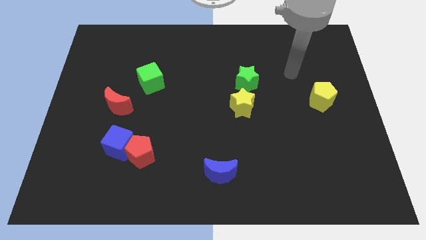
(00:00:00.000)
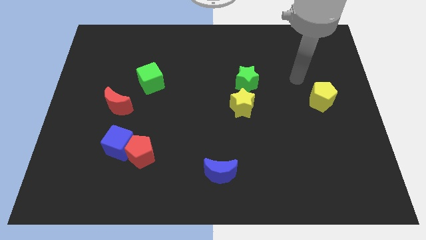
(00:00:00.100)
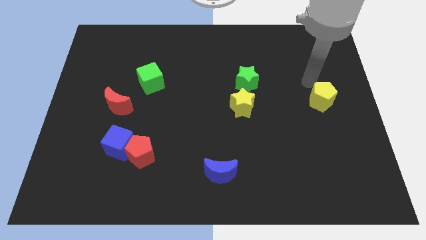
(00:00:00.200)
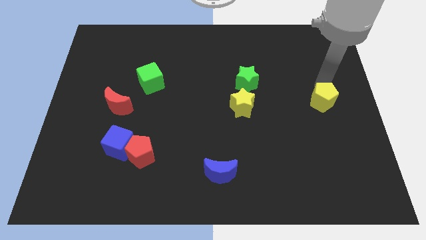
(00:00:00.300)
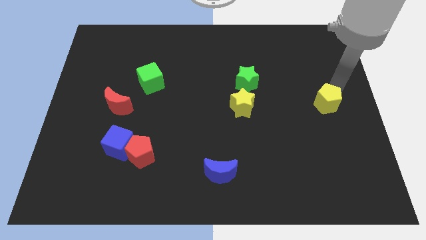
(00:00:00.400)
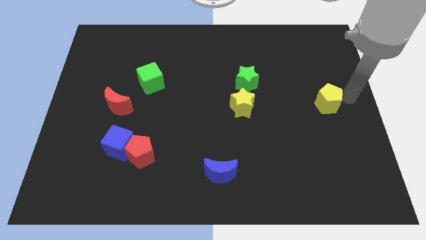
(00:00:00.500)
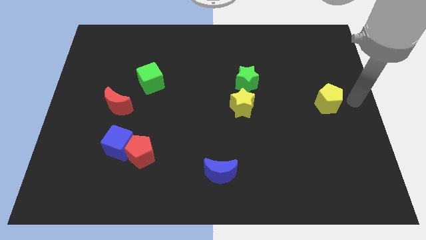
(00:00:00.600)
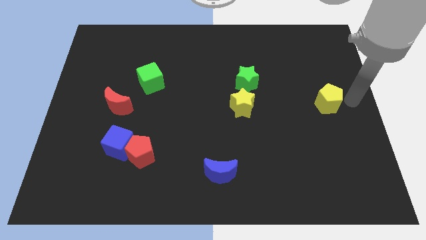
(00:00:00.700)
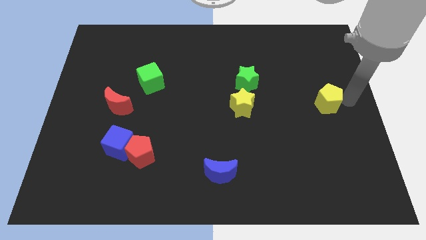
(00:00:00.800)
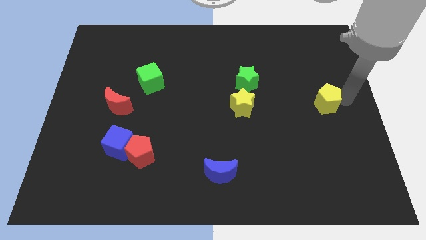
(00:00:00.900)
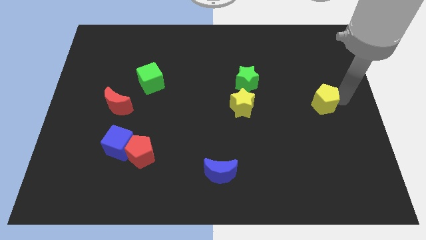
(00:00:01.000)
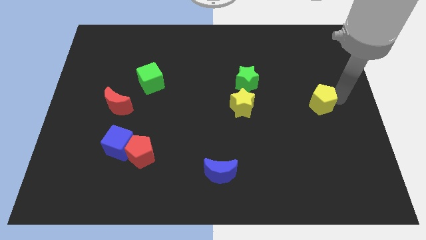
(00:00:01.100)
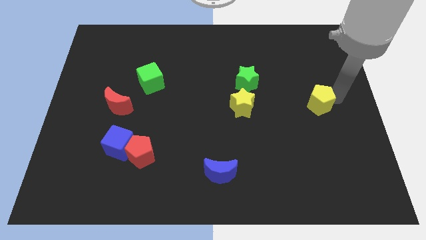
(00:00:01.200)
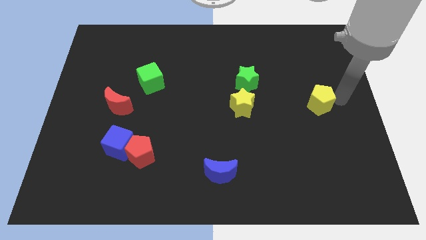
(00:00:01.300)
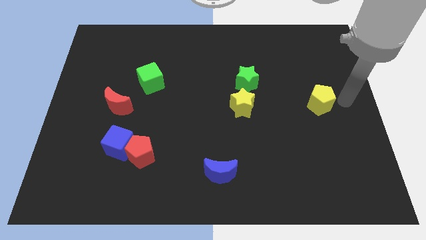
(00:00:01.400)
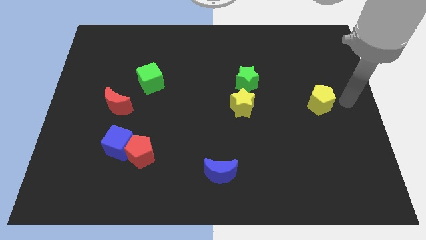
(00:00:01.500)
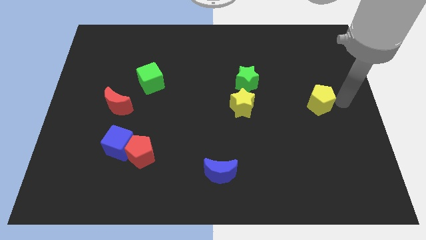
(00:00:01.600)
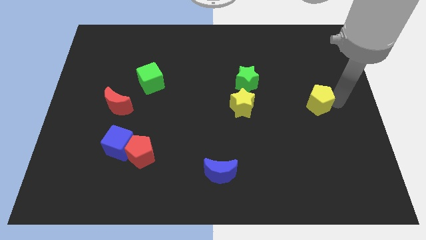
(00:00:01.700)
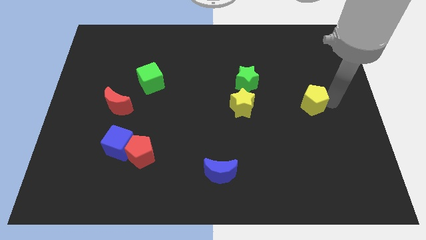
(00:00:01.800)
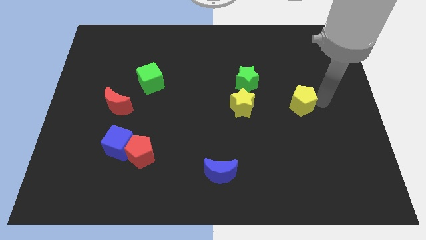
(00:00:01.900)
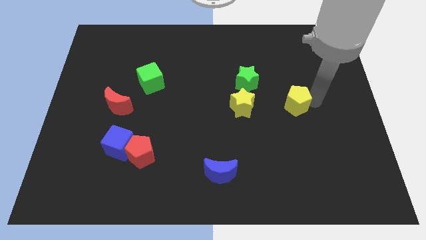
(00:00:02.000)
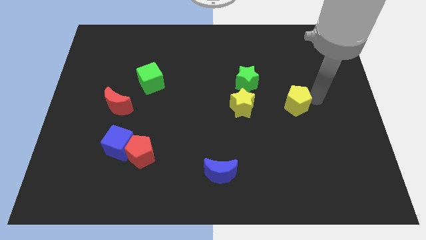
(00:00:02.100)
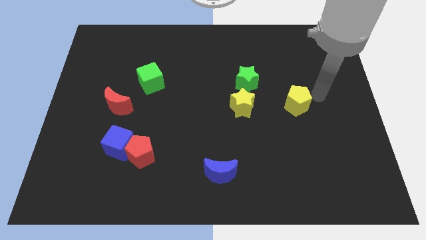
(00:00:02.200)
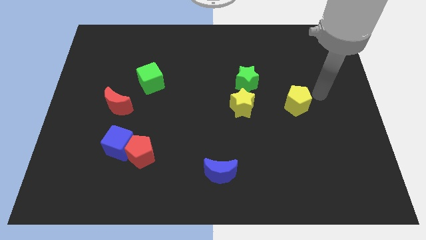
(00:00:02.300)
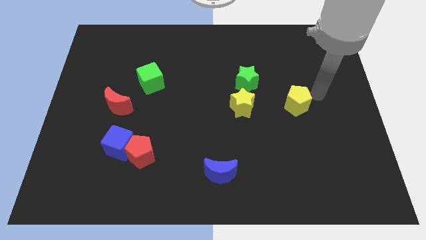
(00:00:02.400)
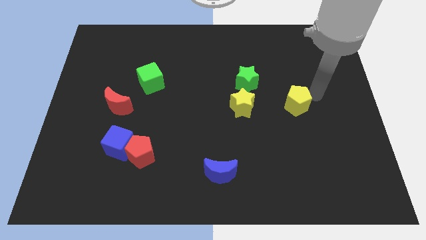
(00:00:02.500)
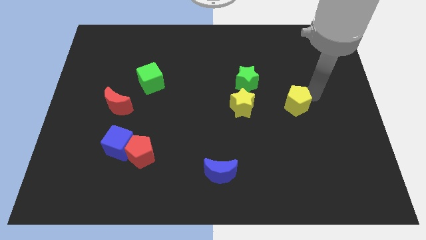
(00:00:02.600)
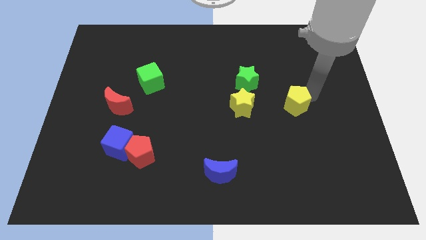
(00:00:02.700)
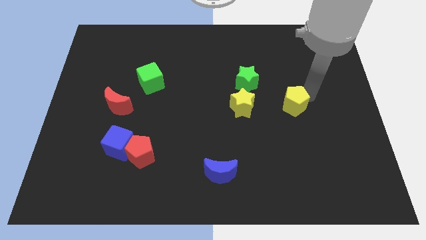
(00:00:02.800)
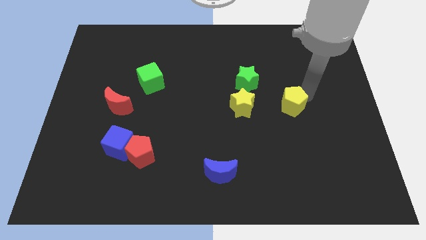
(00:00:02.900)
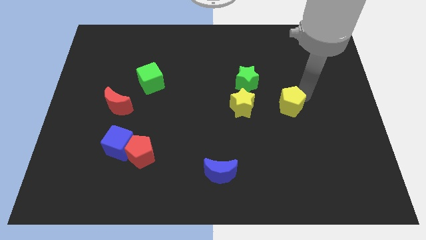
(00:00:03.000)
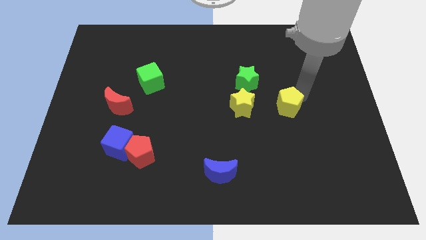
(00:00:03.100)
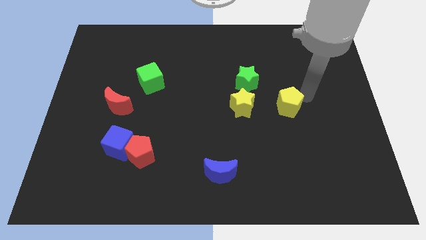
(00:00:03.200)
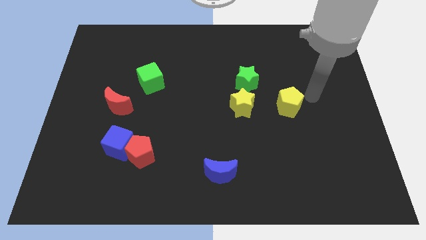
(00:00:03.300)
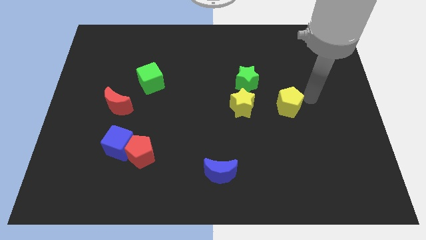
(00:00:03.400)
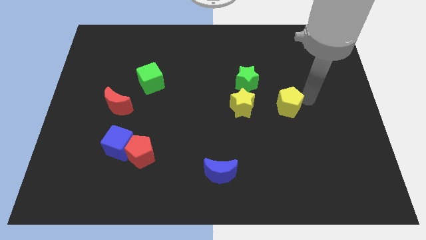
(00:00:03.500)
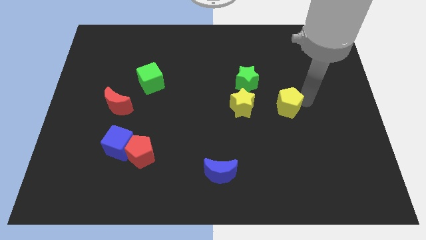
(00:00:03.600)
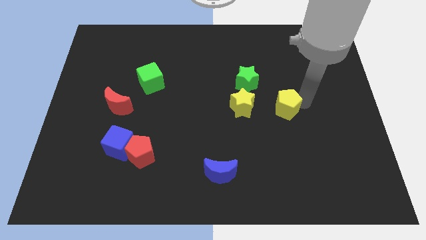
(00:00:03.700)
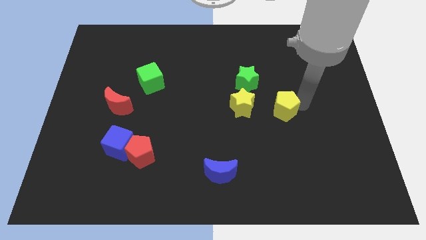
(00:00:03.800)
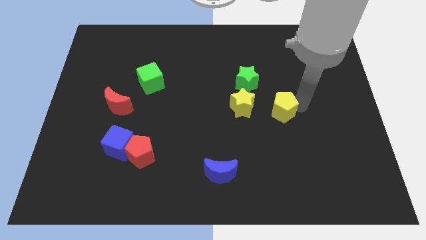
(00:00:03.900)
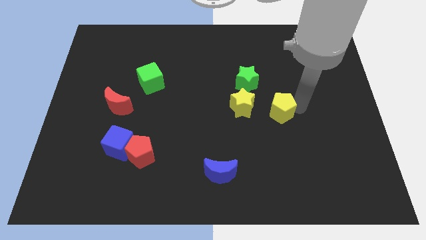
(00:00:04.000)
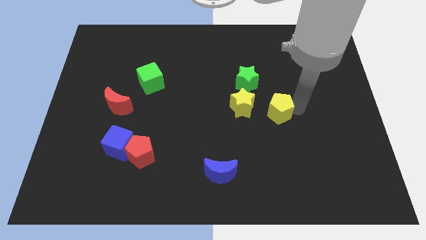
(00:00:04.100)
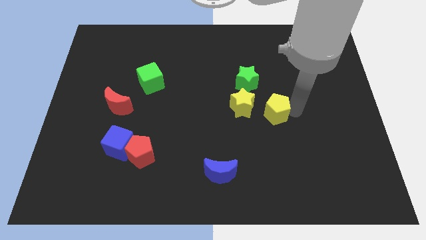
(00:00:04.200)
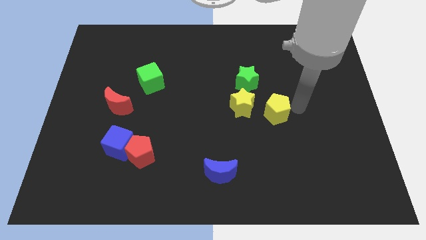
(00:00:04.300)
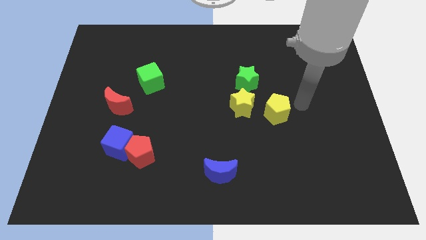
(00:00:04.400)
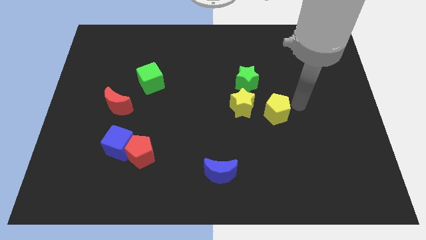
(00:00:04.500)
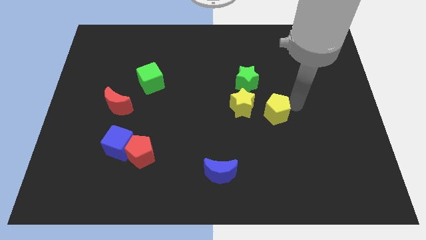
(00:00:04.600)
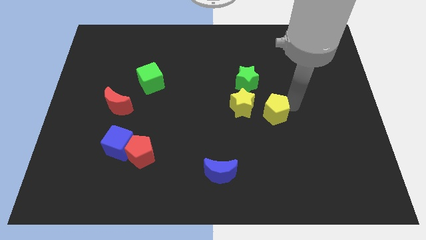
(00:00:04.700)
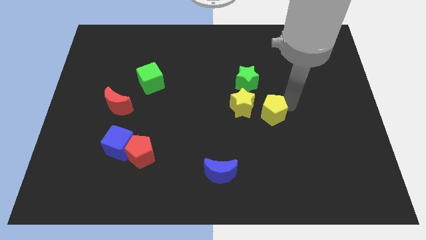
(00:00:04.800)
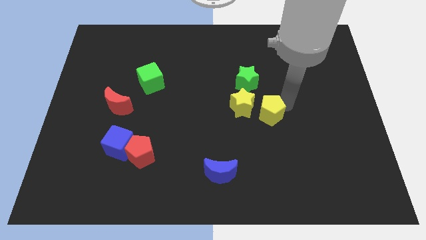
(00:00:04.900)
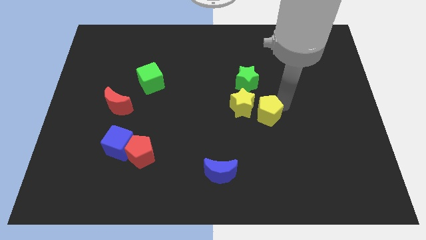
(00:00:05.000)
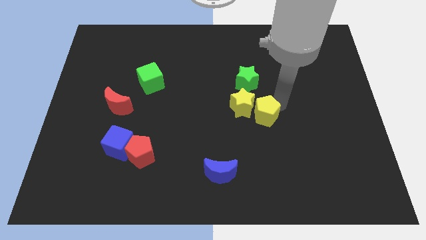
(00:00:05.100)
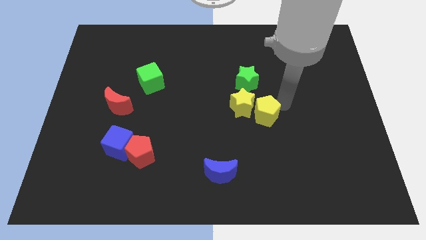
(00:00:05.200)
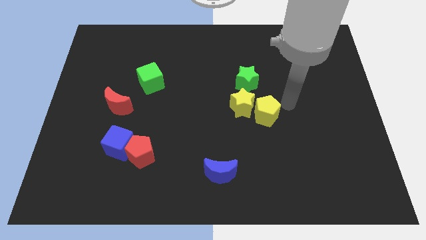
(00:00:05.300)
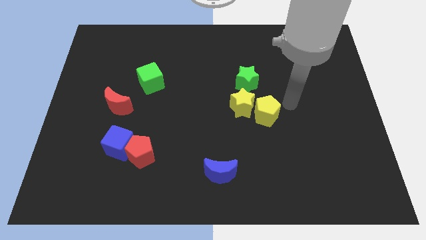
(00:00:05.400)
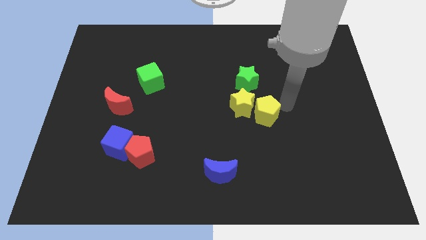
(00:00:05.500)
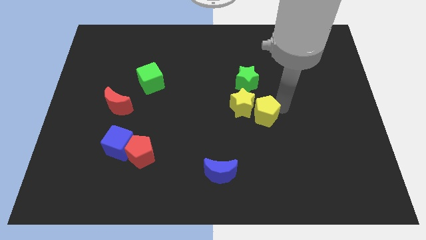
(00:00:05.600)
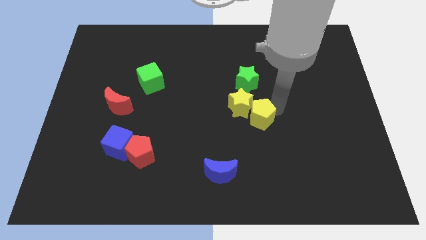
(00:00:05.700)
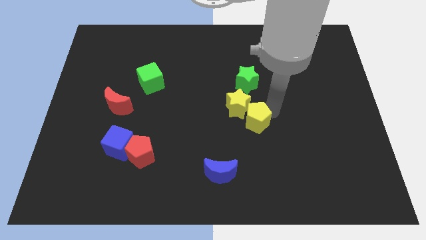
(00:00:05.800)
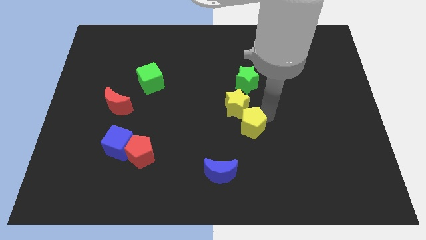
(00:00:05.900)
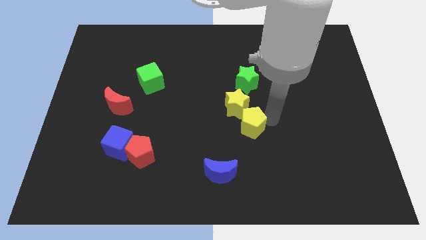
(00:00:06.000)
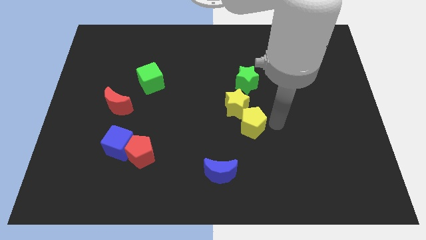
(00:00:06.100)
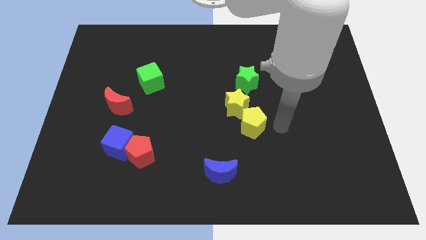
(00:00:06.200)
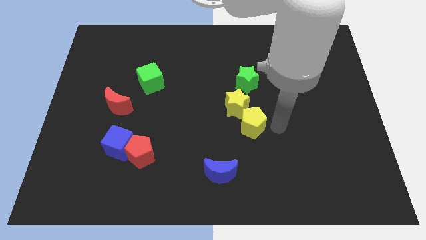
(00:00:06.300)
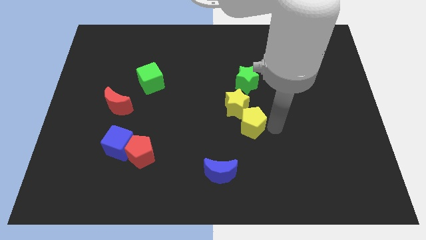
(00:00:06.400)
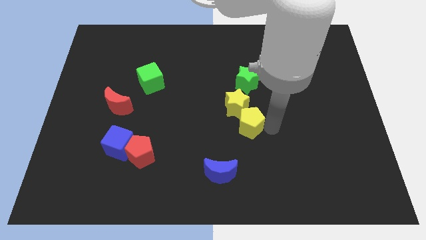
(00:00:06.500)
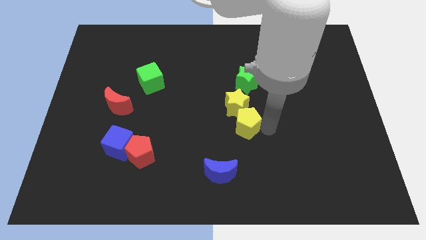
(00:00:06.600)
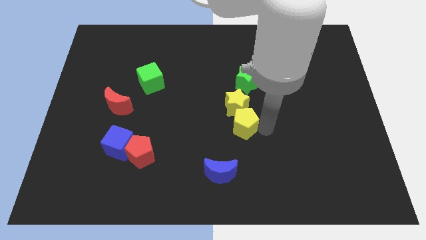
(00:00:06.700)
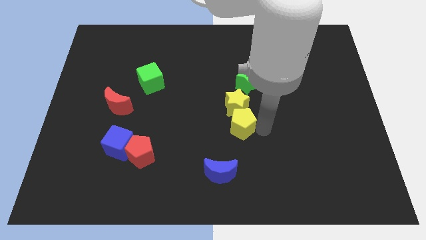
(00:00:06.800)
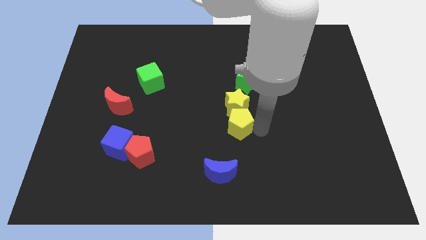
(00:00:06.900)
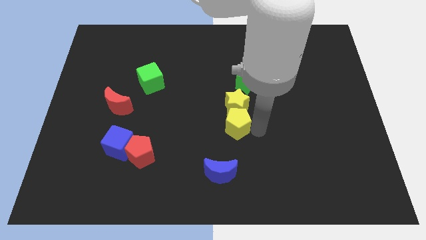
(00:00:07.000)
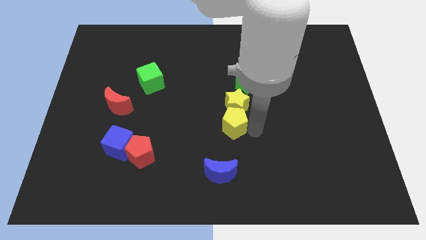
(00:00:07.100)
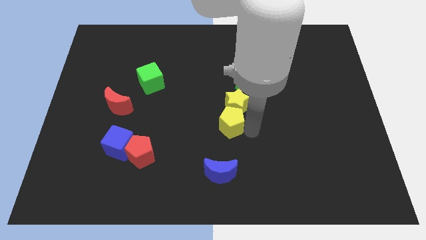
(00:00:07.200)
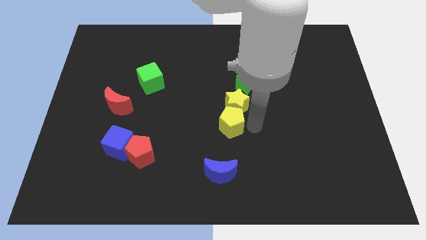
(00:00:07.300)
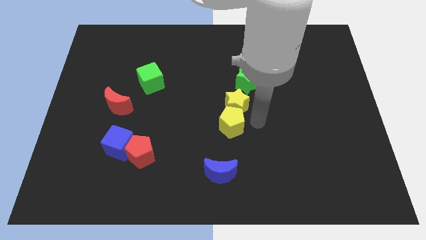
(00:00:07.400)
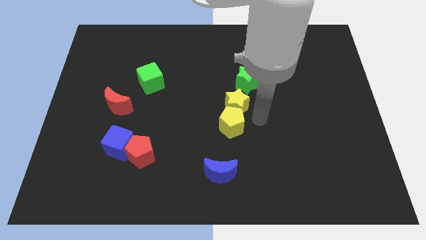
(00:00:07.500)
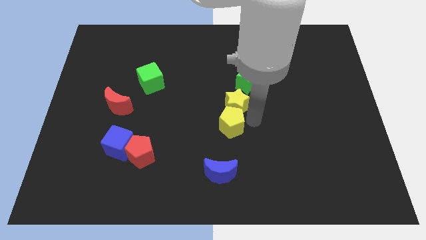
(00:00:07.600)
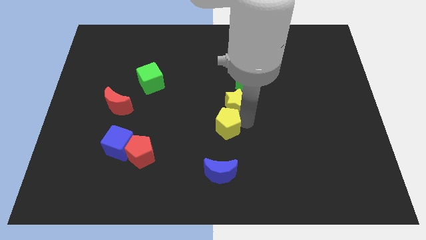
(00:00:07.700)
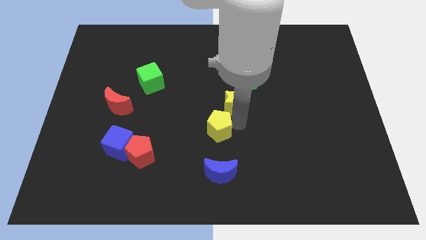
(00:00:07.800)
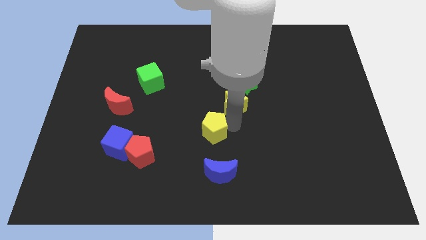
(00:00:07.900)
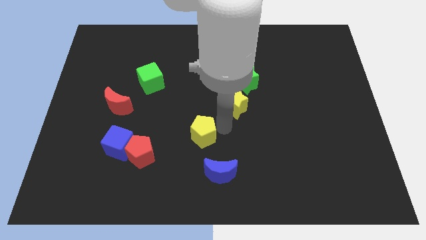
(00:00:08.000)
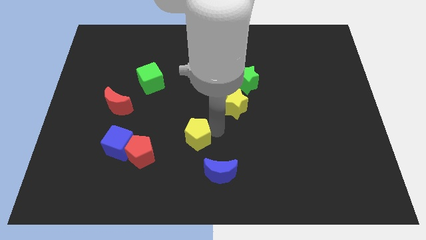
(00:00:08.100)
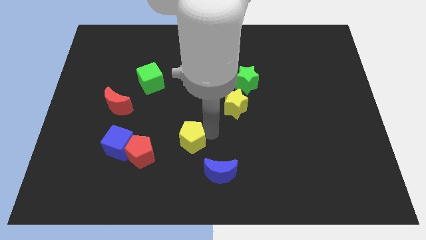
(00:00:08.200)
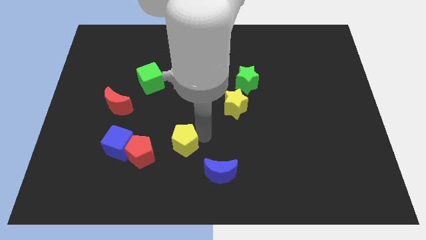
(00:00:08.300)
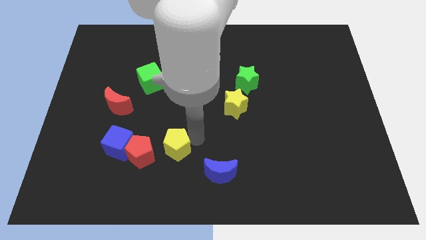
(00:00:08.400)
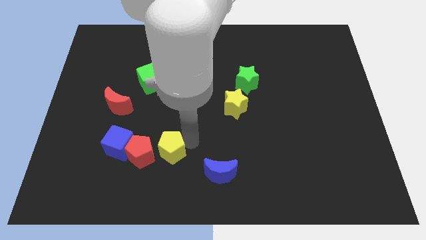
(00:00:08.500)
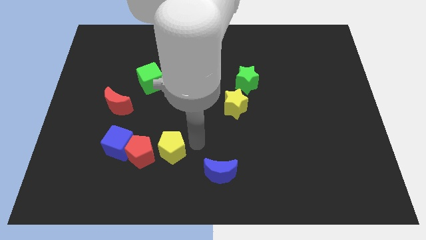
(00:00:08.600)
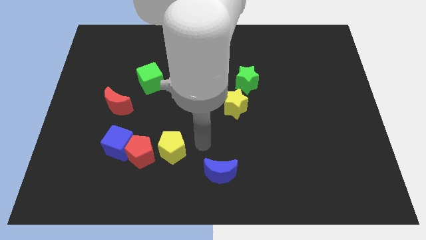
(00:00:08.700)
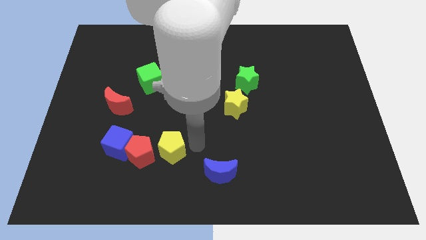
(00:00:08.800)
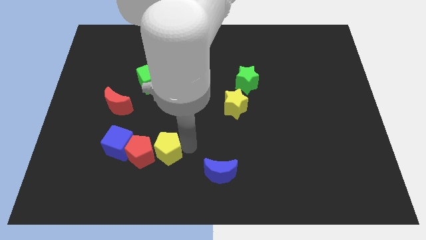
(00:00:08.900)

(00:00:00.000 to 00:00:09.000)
push the yellow pentagon towards the red pentagon
